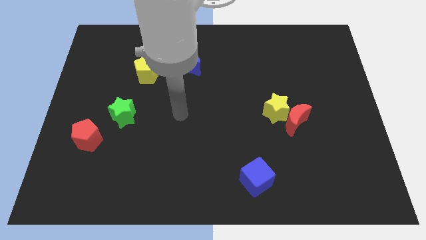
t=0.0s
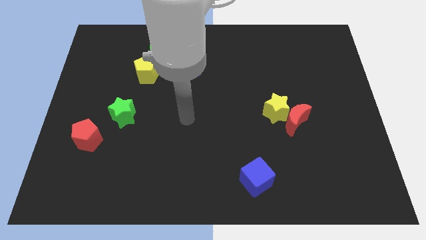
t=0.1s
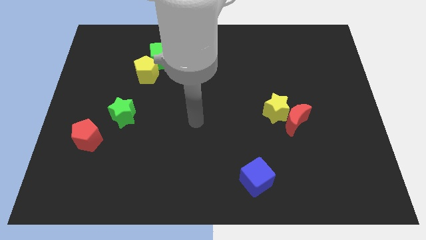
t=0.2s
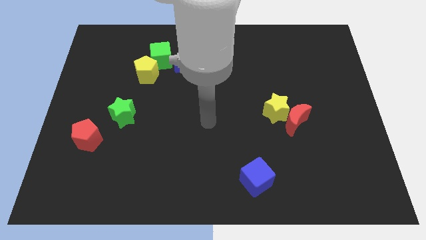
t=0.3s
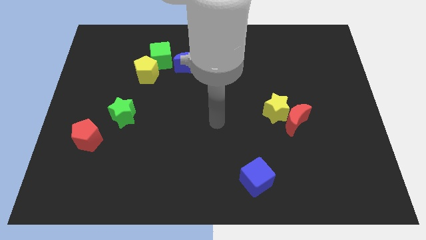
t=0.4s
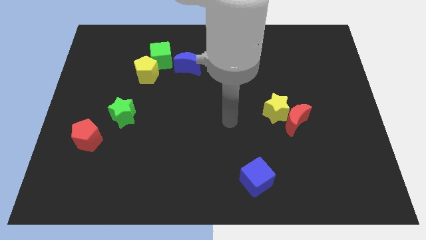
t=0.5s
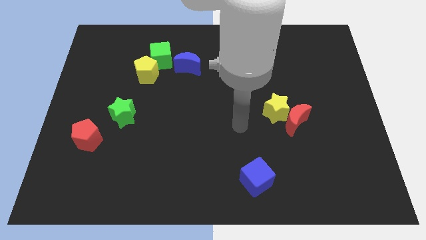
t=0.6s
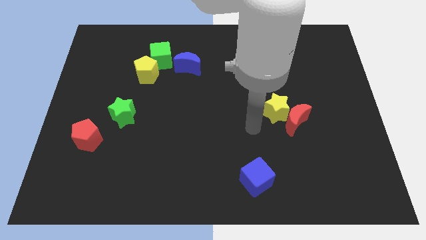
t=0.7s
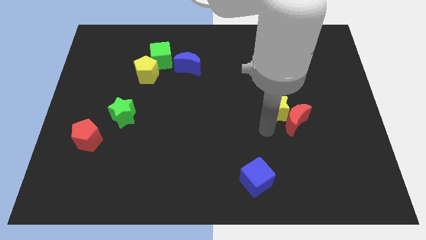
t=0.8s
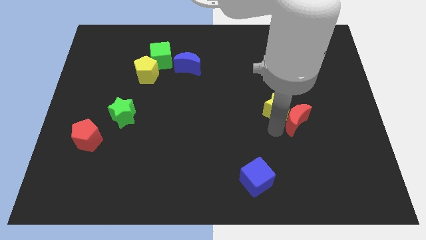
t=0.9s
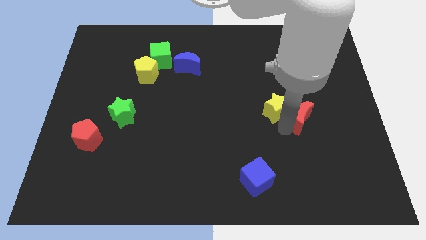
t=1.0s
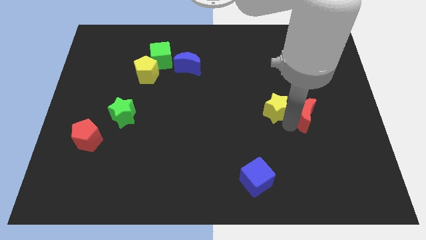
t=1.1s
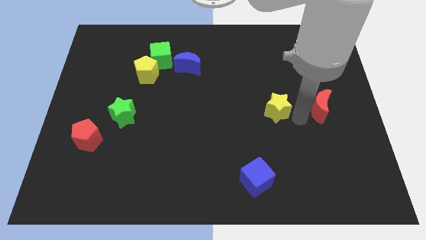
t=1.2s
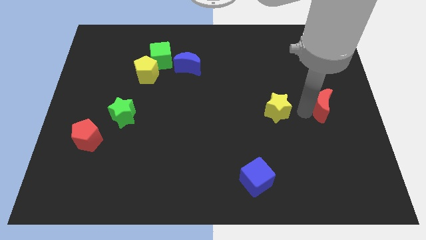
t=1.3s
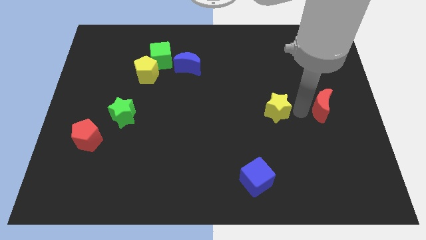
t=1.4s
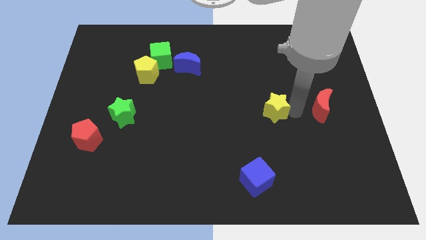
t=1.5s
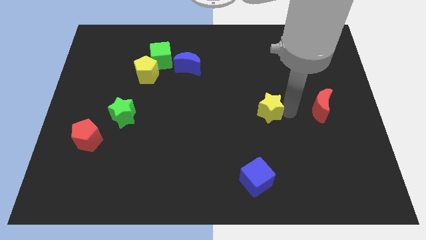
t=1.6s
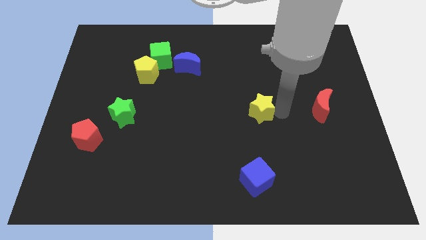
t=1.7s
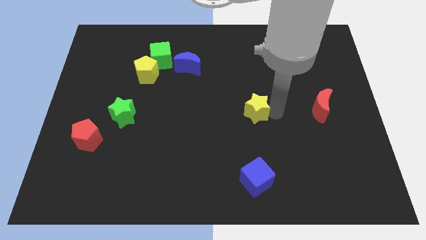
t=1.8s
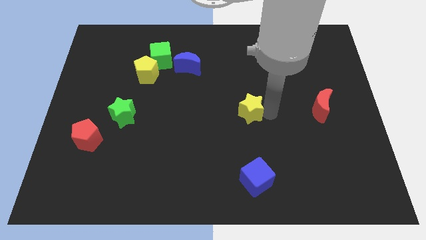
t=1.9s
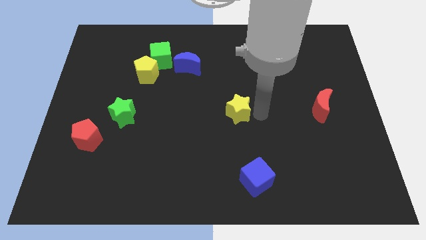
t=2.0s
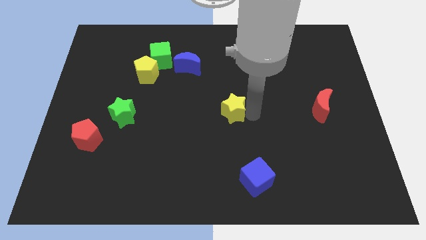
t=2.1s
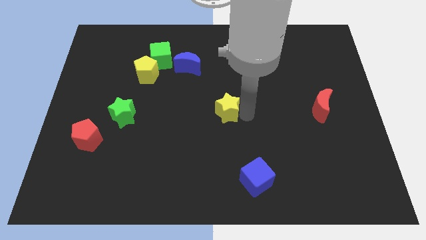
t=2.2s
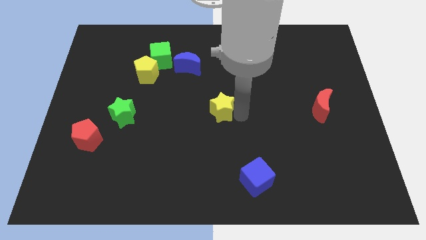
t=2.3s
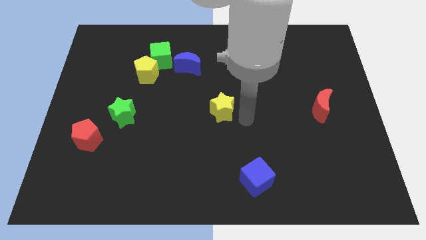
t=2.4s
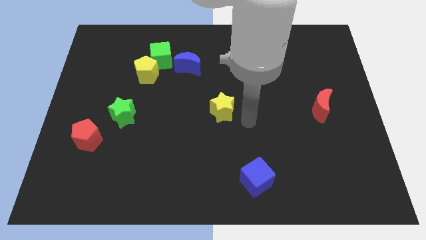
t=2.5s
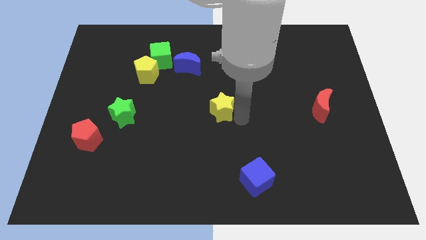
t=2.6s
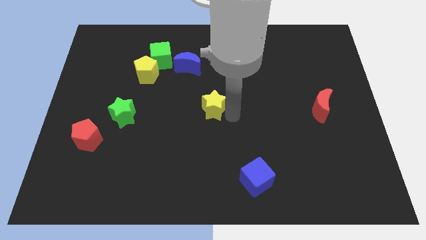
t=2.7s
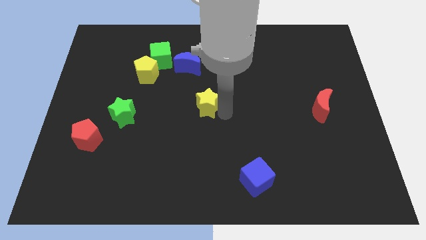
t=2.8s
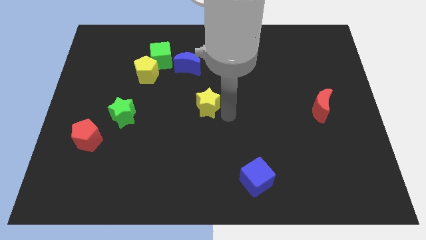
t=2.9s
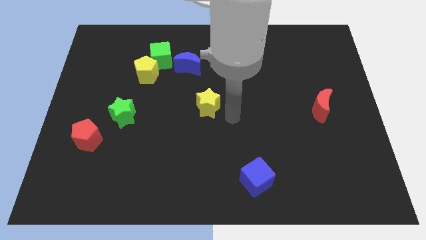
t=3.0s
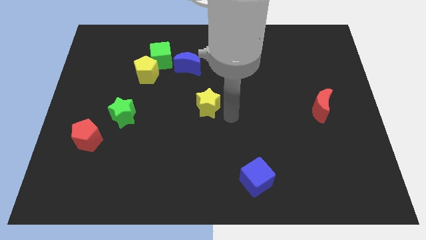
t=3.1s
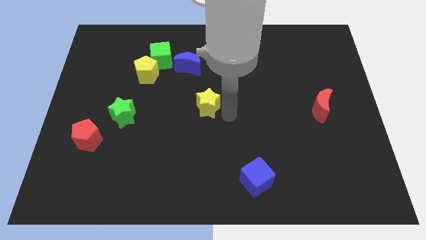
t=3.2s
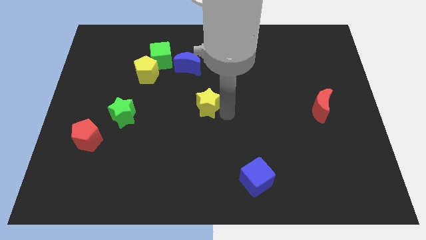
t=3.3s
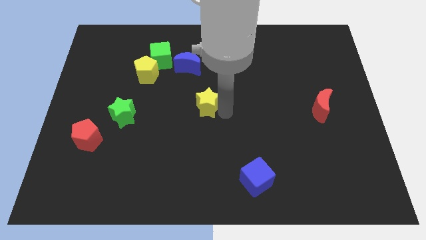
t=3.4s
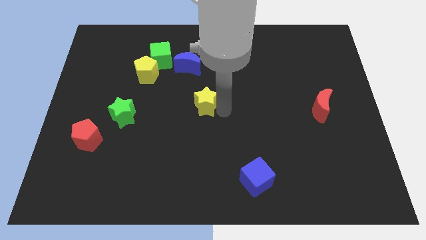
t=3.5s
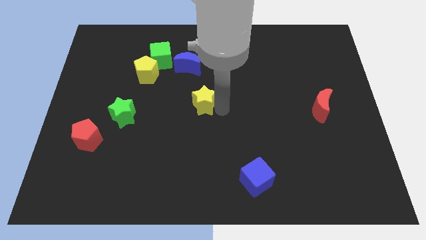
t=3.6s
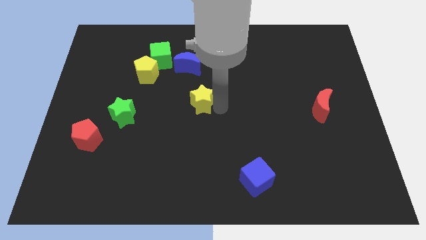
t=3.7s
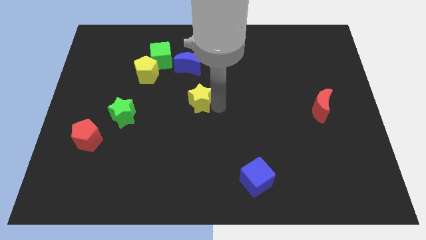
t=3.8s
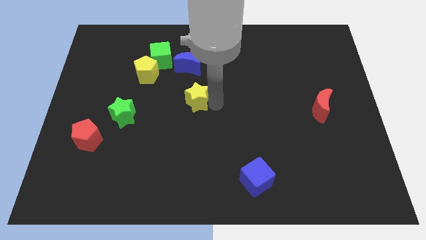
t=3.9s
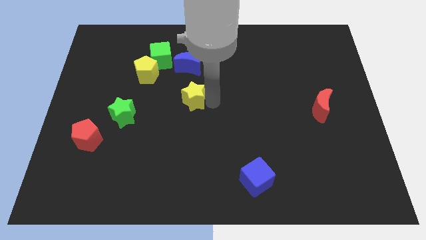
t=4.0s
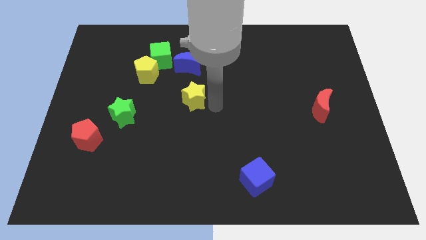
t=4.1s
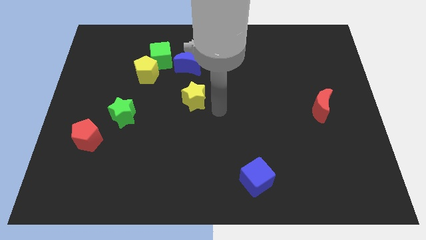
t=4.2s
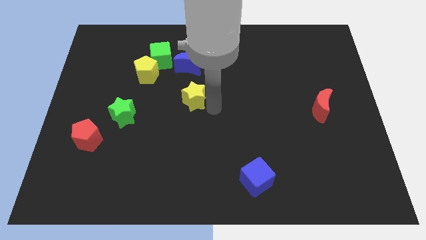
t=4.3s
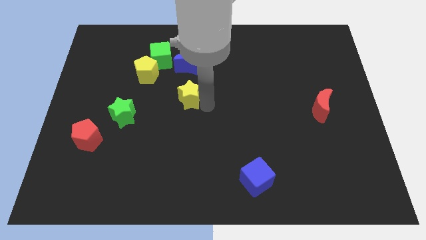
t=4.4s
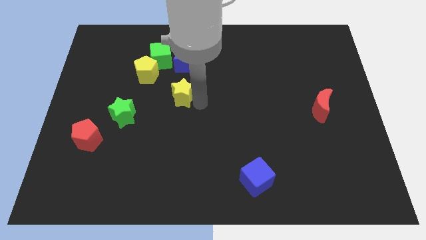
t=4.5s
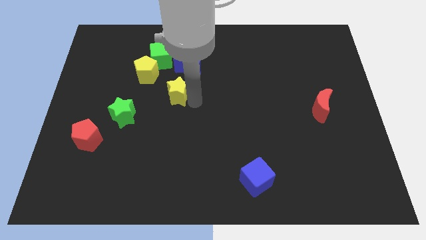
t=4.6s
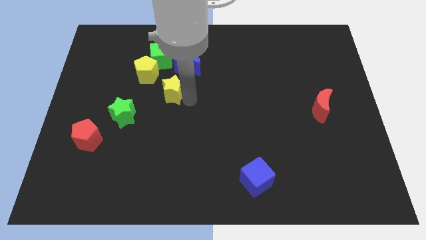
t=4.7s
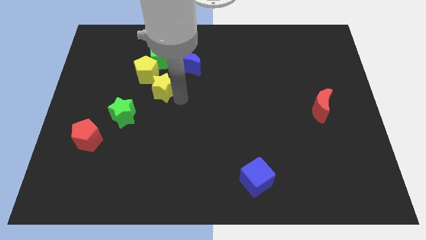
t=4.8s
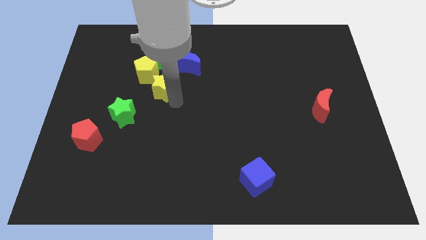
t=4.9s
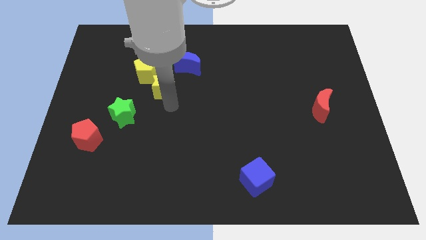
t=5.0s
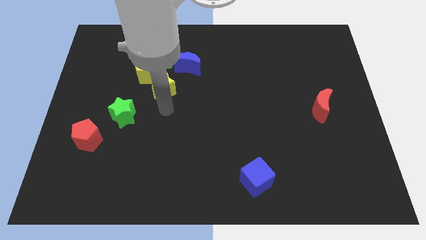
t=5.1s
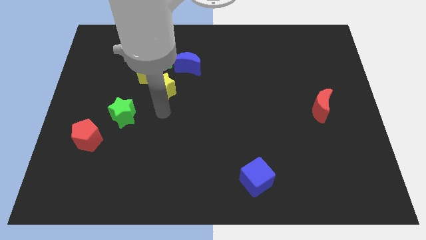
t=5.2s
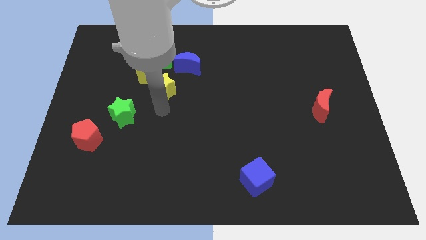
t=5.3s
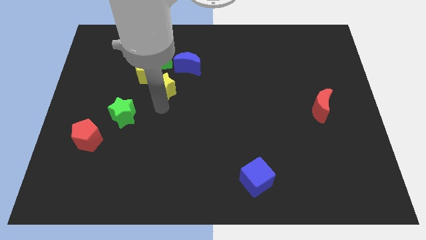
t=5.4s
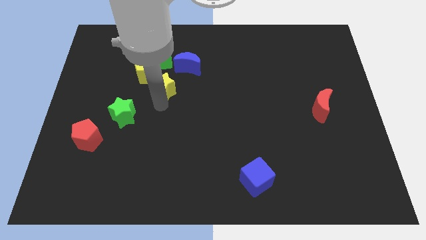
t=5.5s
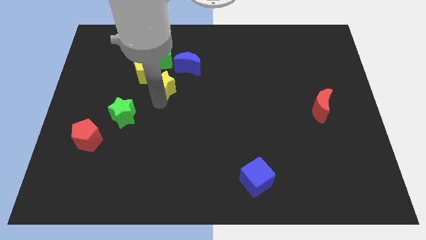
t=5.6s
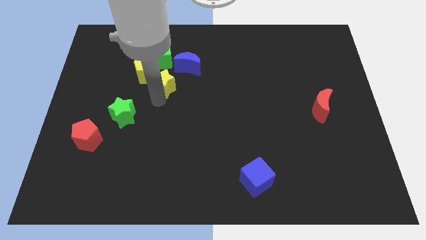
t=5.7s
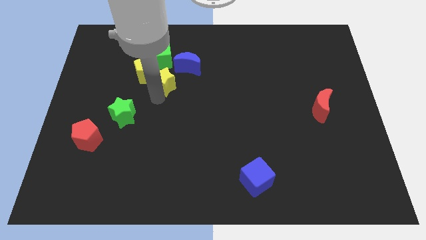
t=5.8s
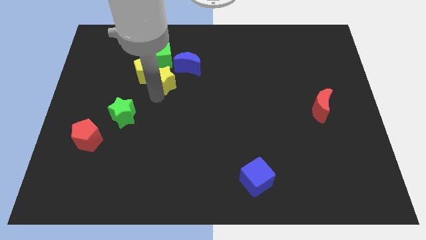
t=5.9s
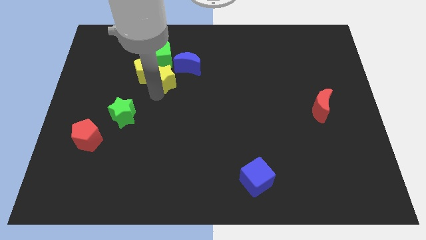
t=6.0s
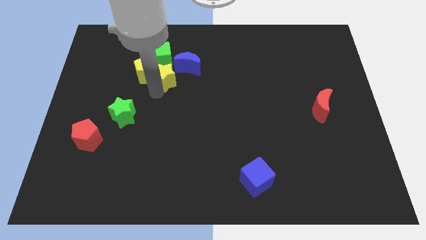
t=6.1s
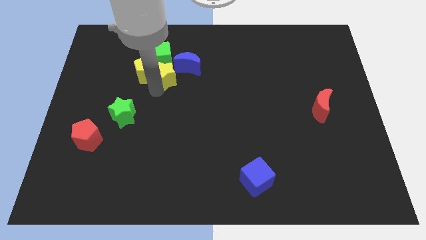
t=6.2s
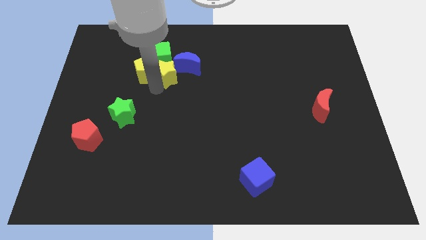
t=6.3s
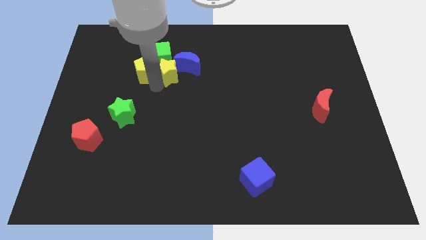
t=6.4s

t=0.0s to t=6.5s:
push the yellow star towards the green cube
